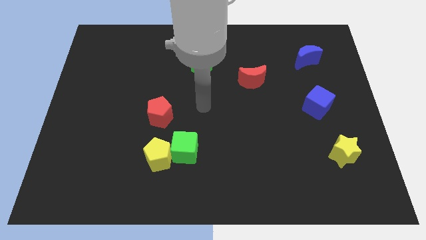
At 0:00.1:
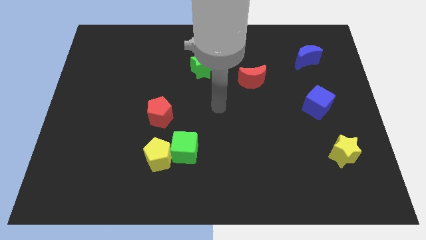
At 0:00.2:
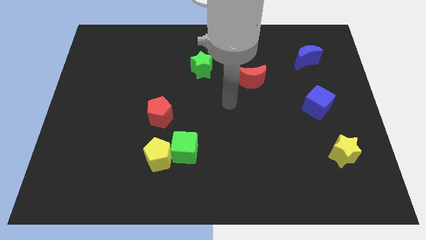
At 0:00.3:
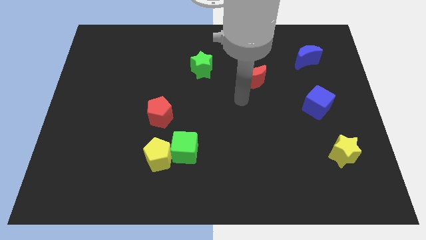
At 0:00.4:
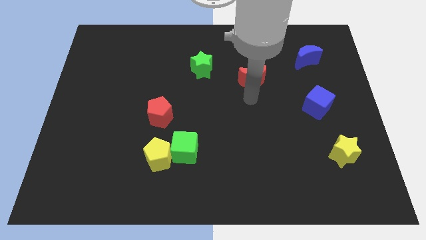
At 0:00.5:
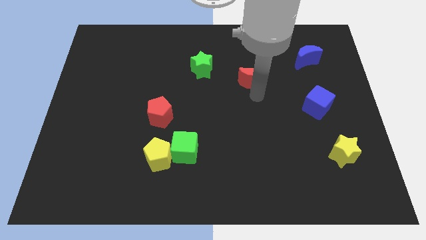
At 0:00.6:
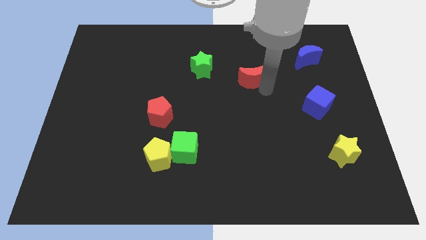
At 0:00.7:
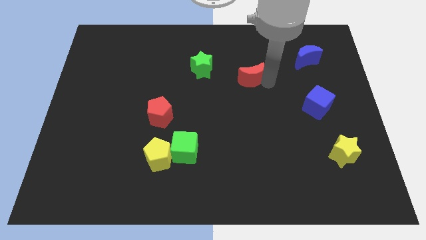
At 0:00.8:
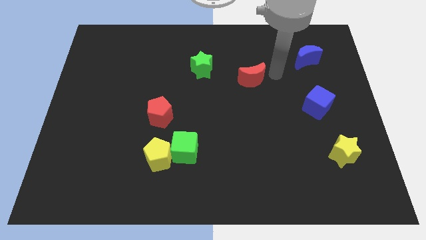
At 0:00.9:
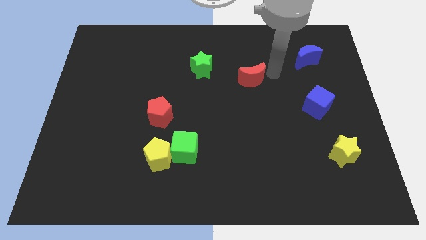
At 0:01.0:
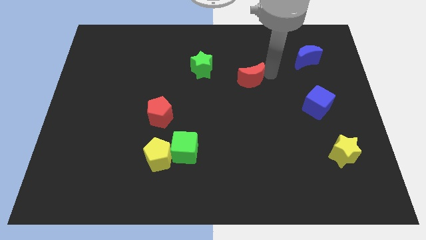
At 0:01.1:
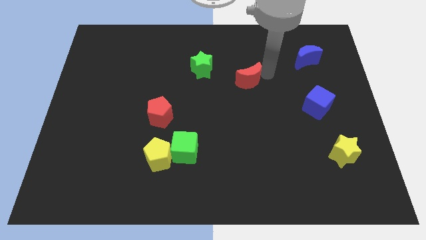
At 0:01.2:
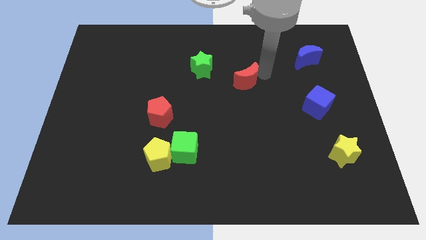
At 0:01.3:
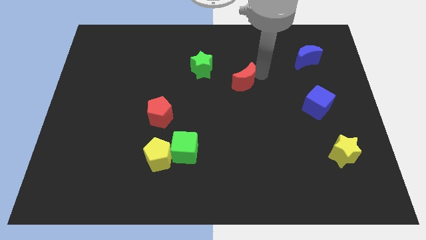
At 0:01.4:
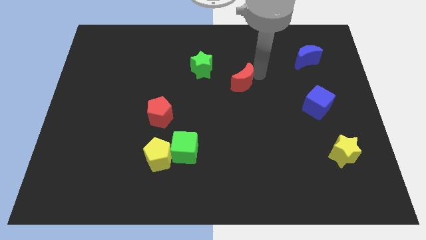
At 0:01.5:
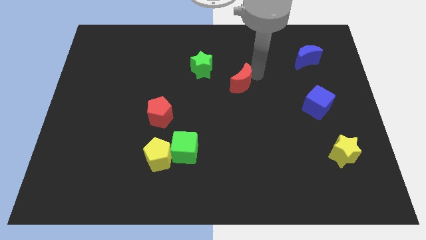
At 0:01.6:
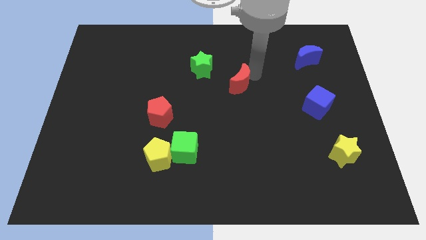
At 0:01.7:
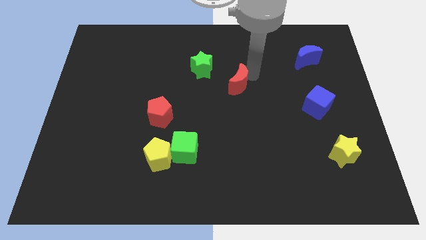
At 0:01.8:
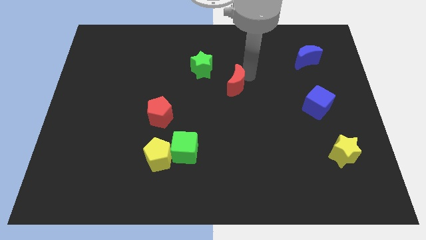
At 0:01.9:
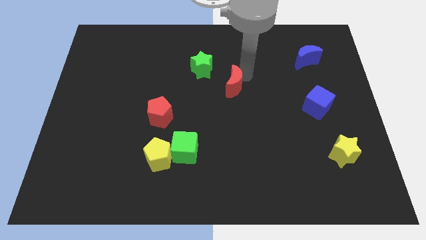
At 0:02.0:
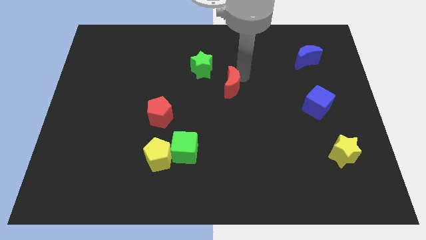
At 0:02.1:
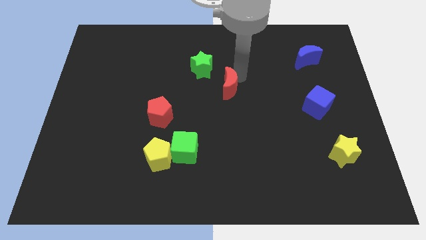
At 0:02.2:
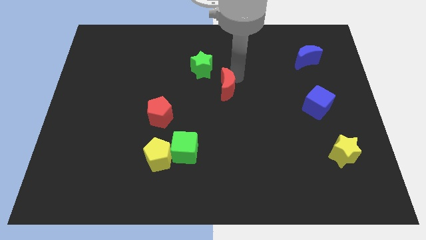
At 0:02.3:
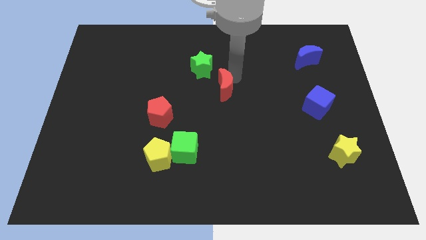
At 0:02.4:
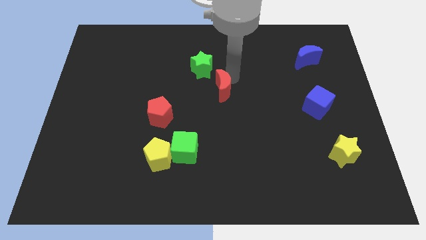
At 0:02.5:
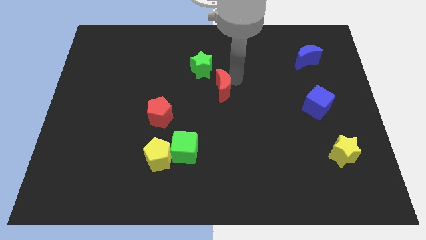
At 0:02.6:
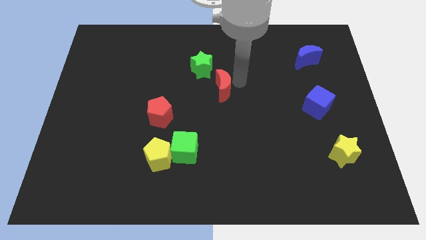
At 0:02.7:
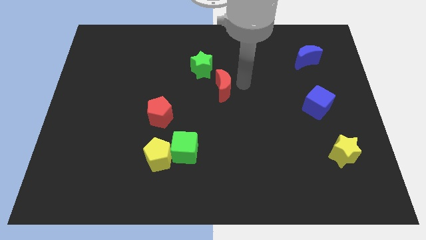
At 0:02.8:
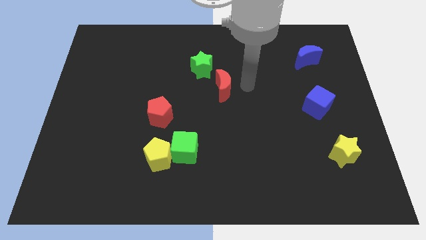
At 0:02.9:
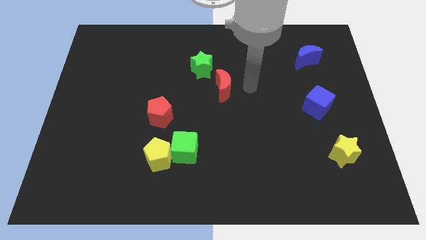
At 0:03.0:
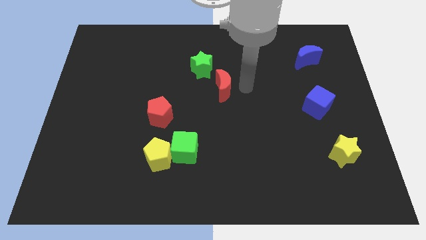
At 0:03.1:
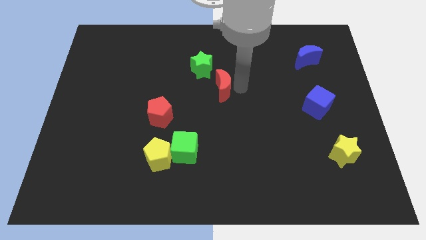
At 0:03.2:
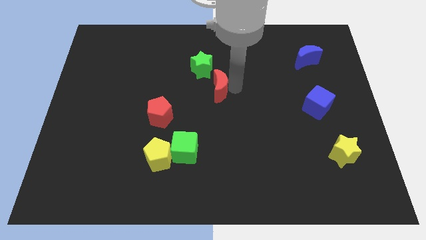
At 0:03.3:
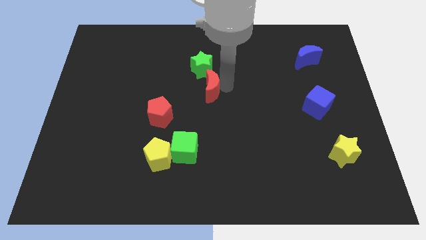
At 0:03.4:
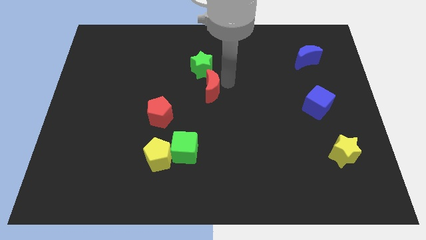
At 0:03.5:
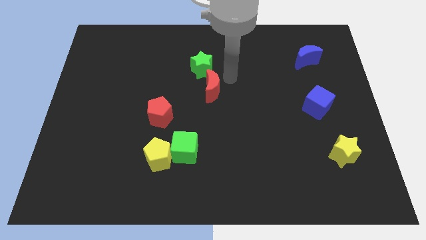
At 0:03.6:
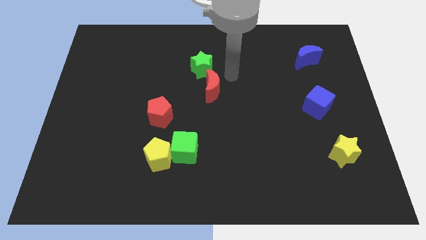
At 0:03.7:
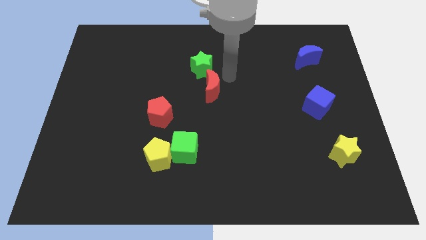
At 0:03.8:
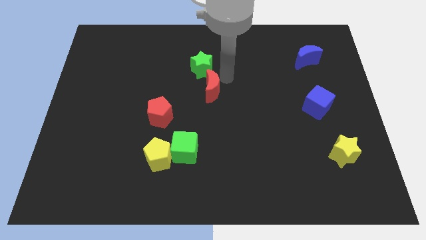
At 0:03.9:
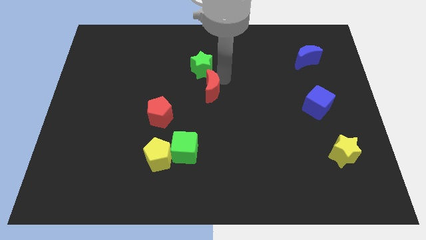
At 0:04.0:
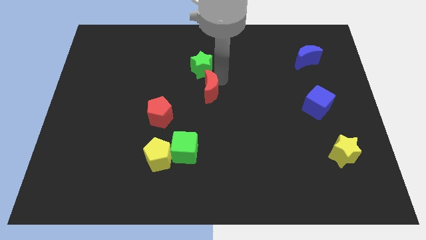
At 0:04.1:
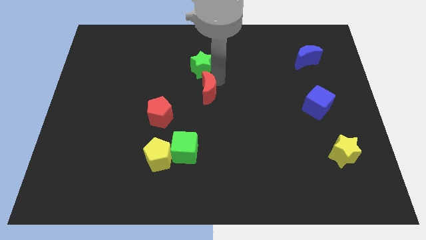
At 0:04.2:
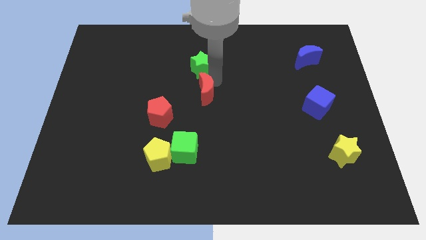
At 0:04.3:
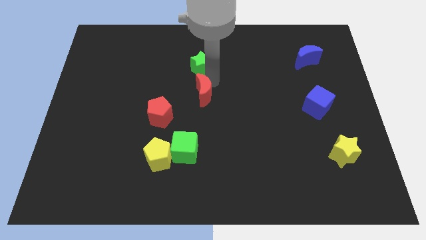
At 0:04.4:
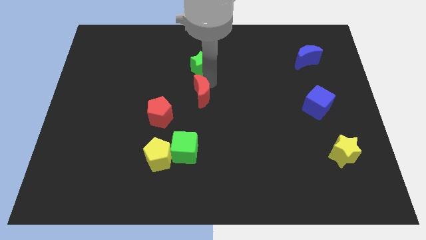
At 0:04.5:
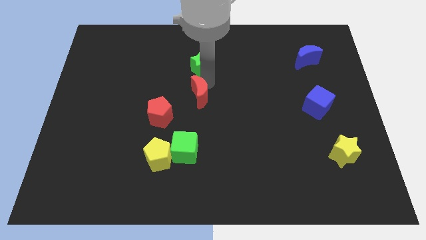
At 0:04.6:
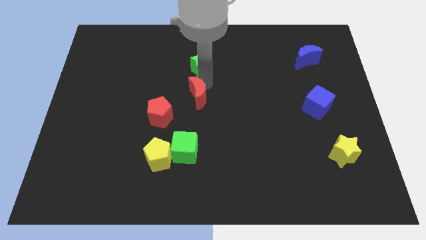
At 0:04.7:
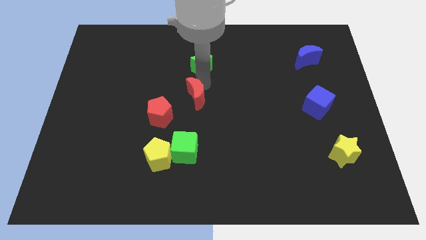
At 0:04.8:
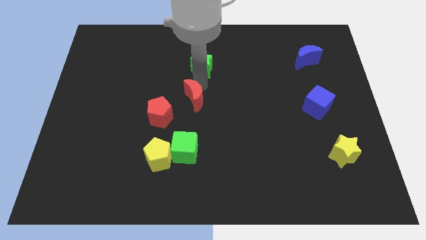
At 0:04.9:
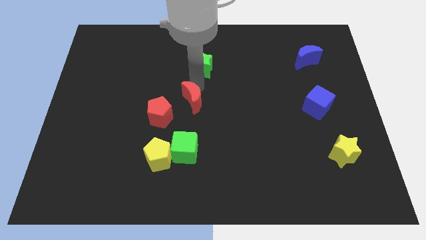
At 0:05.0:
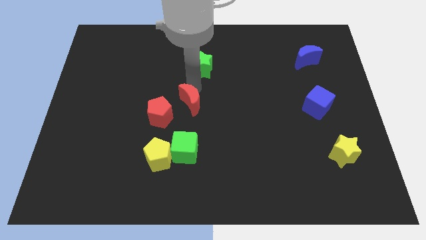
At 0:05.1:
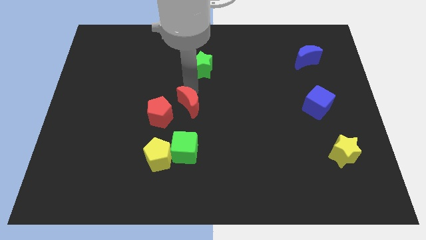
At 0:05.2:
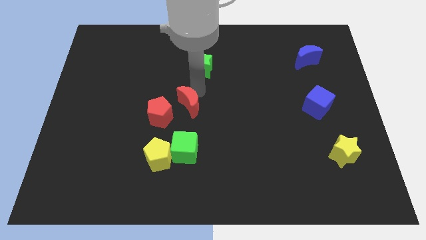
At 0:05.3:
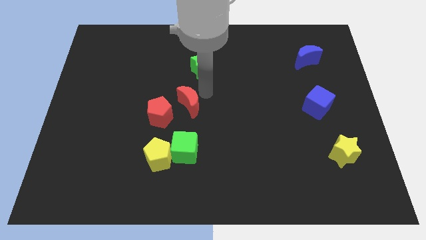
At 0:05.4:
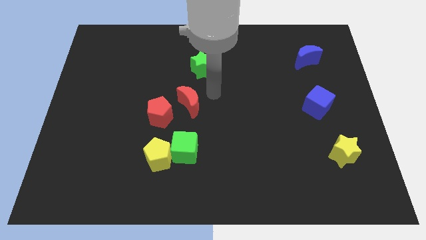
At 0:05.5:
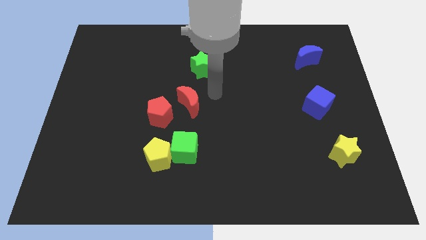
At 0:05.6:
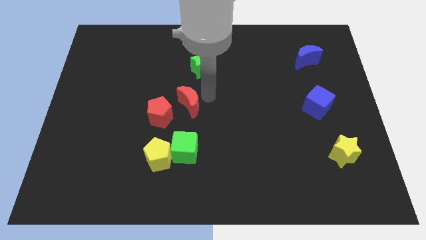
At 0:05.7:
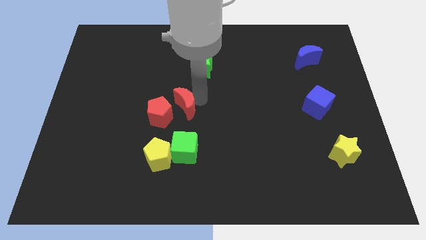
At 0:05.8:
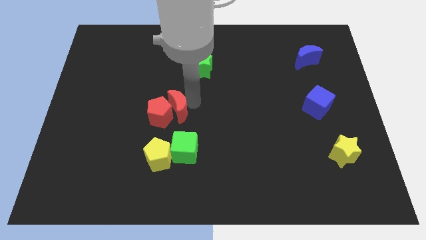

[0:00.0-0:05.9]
put the red moon close to the red pentagon
